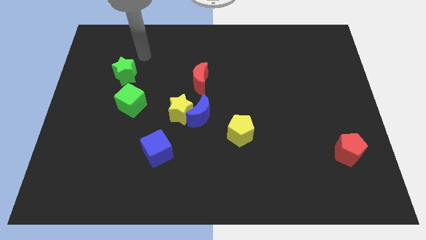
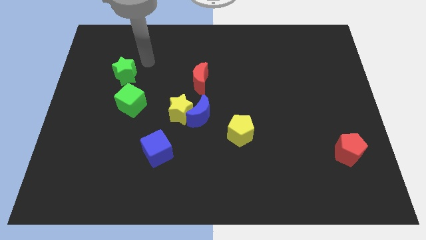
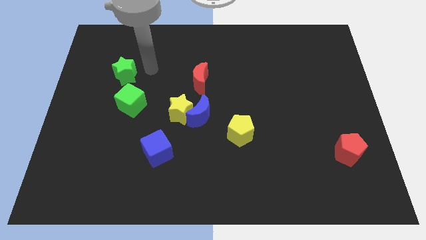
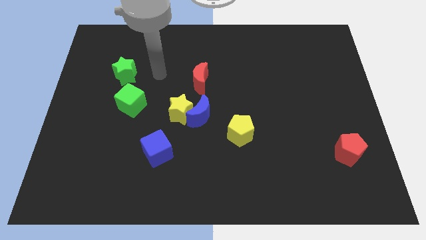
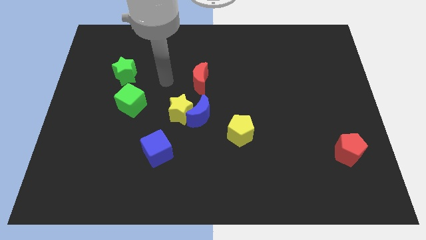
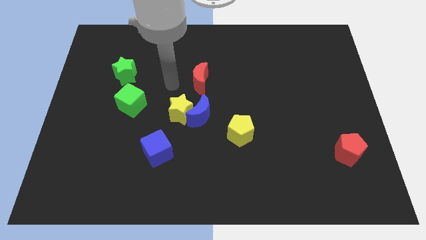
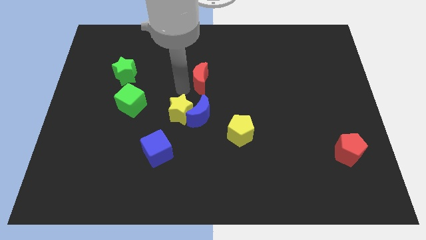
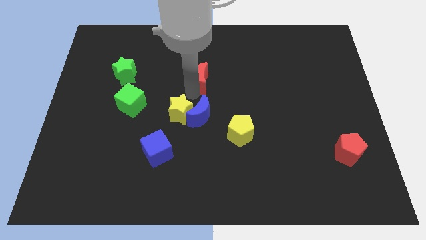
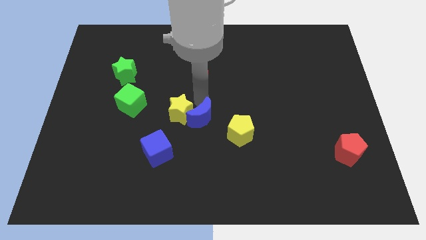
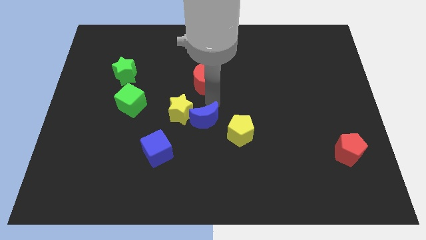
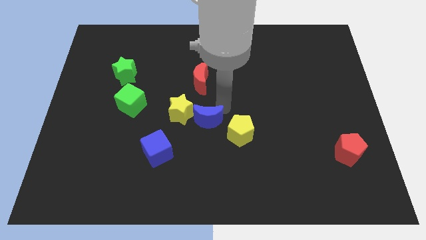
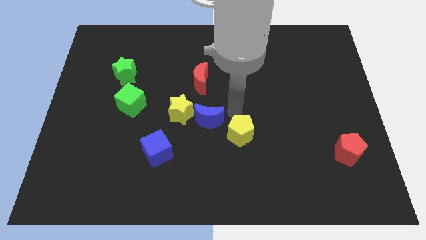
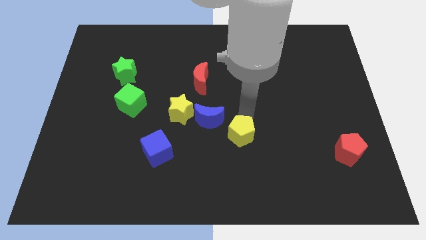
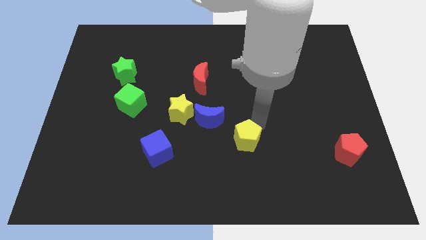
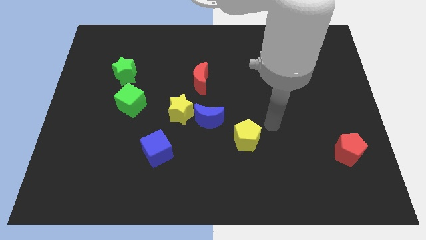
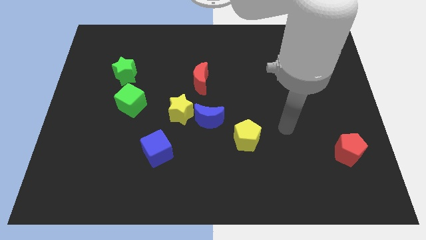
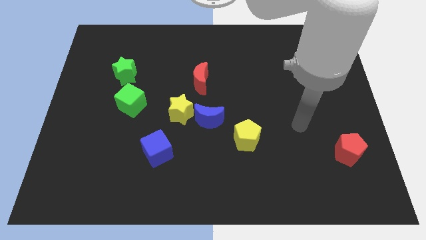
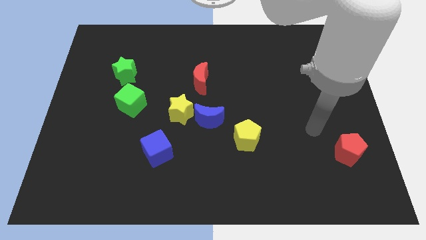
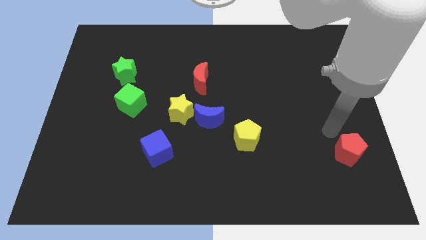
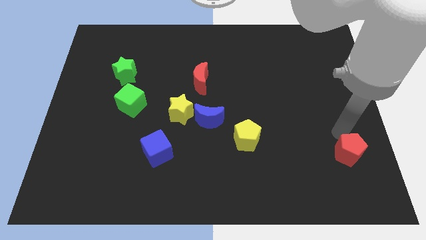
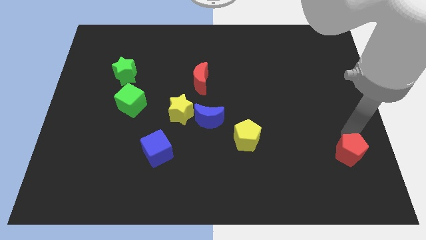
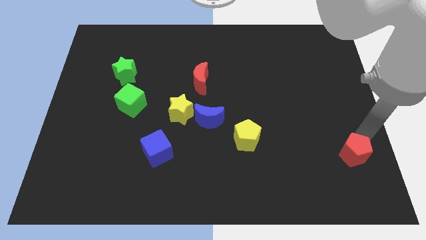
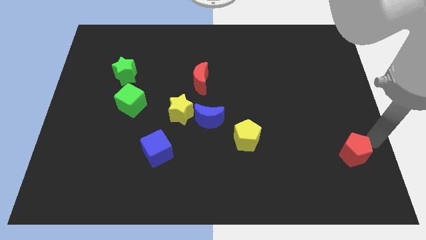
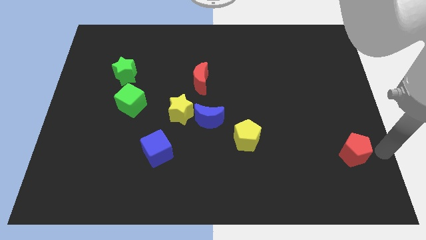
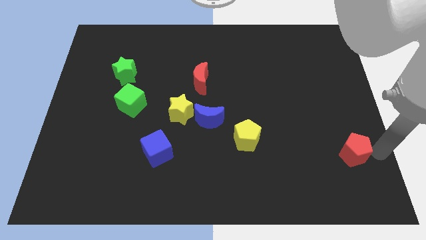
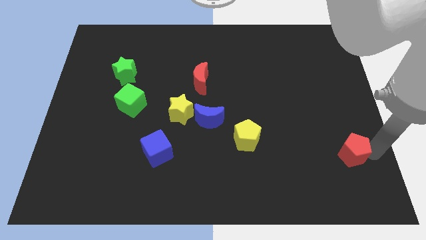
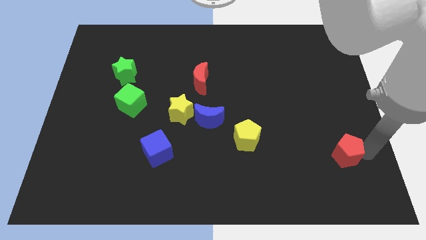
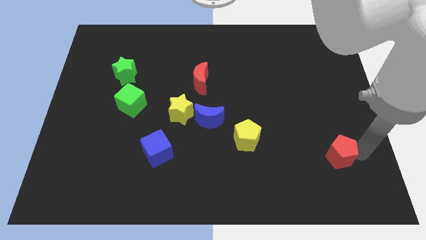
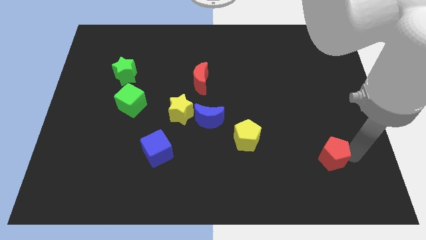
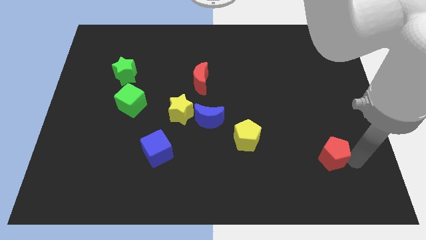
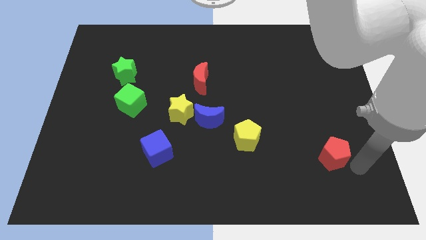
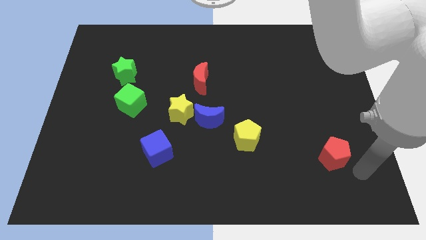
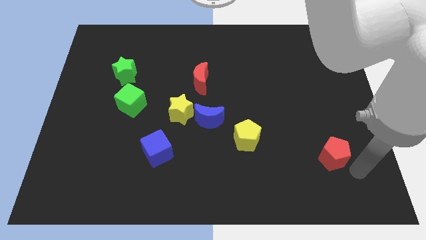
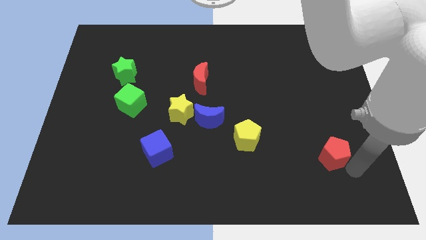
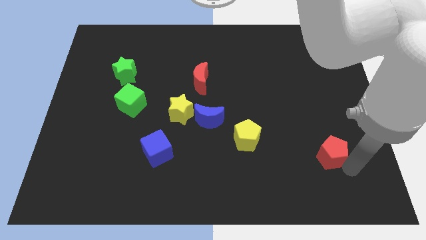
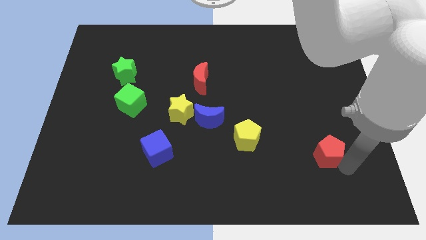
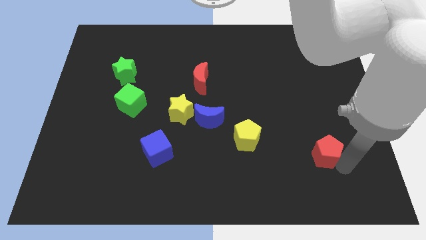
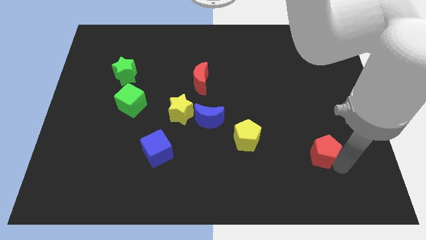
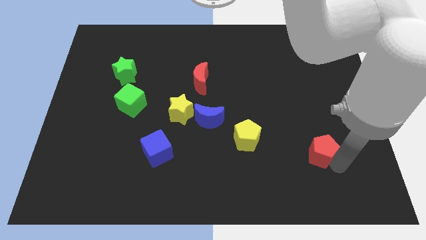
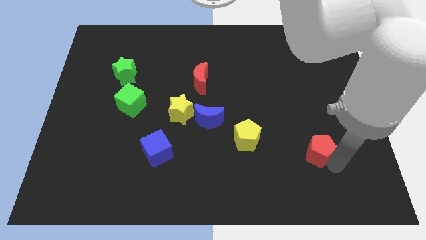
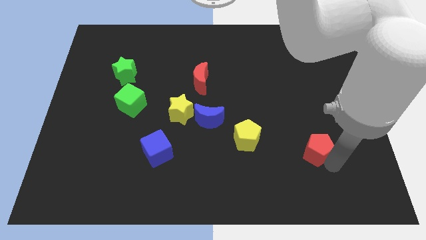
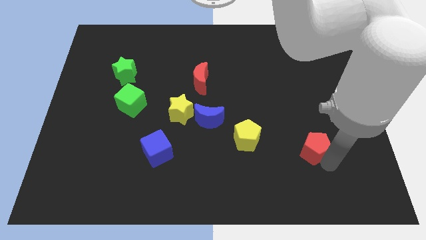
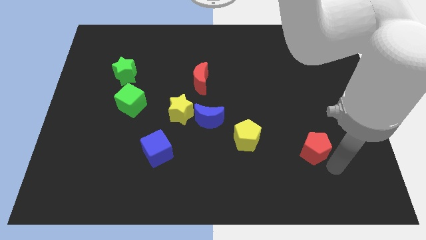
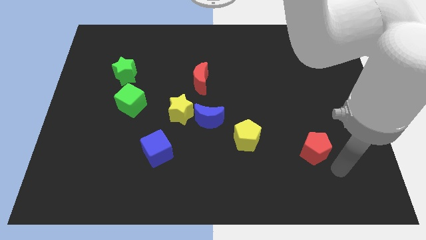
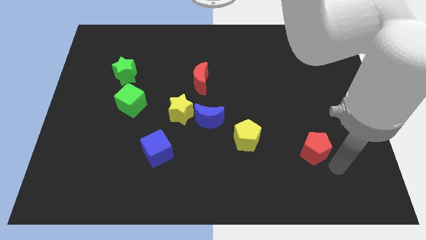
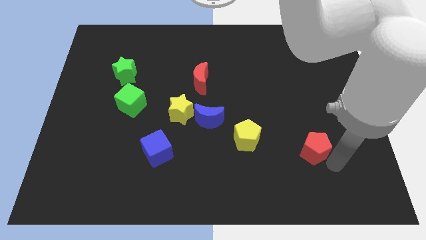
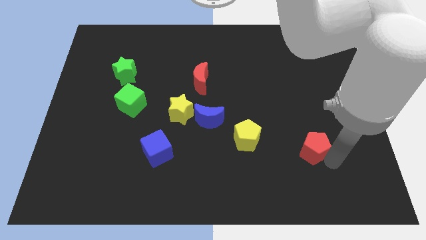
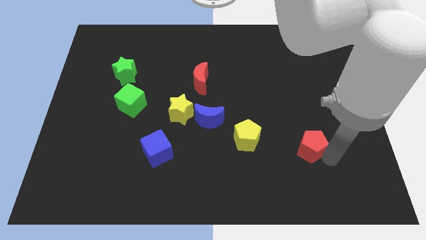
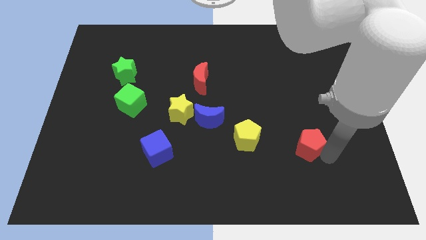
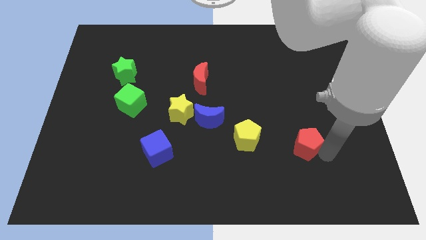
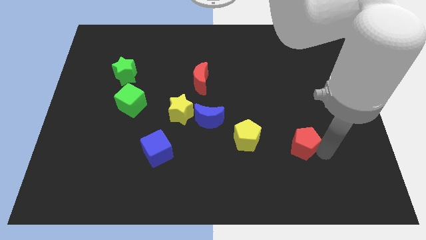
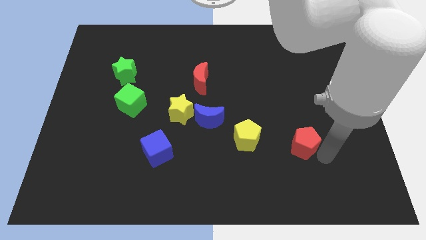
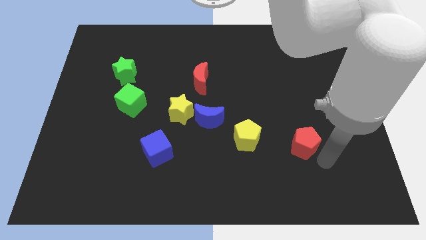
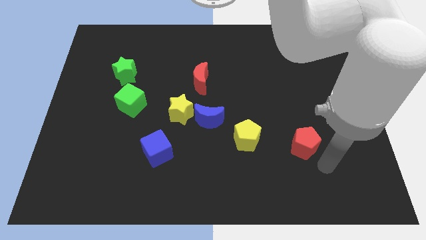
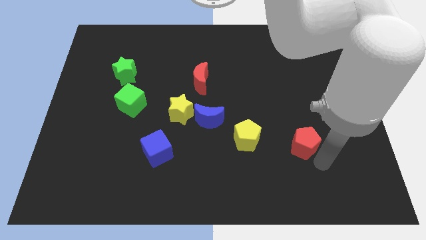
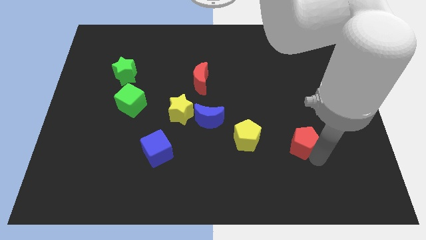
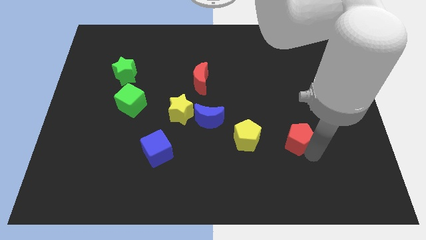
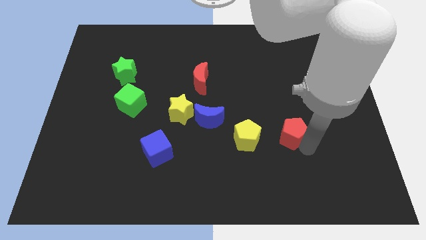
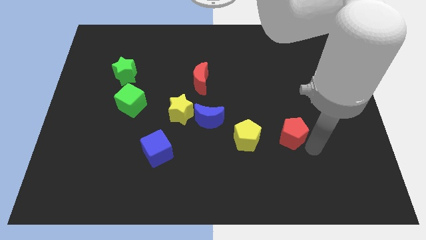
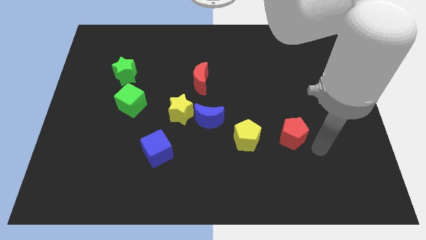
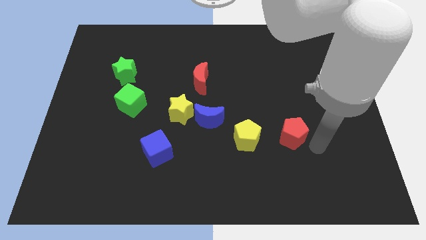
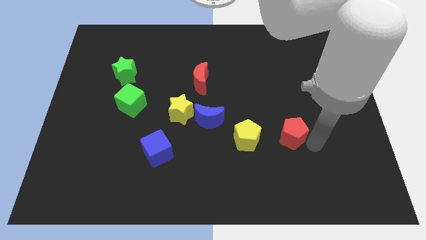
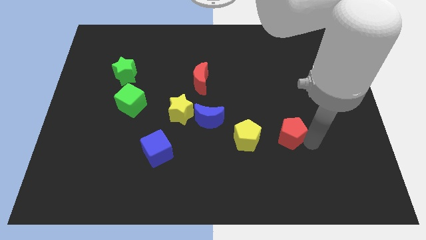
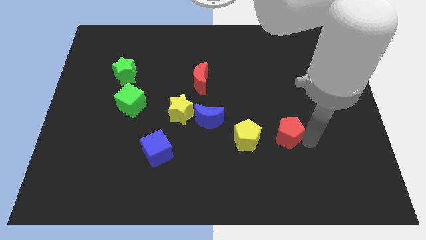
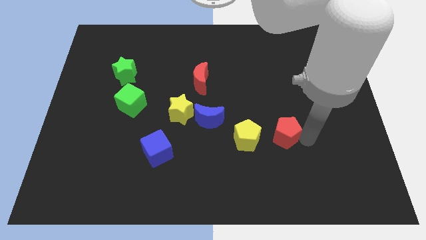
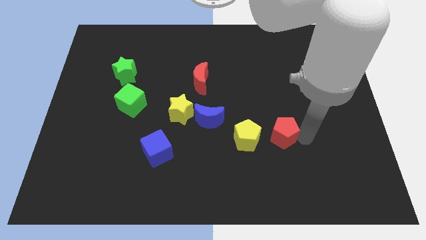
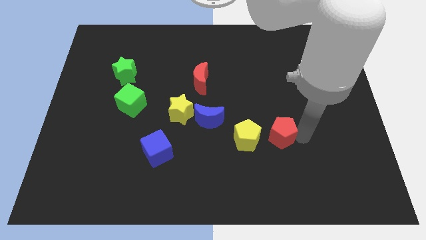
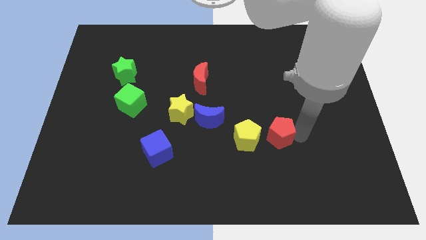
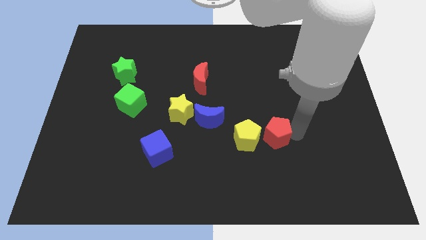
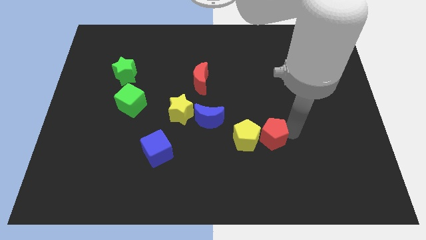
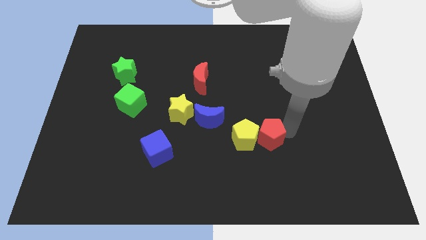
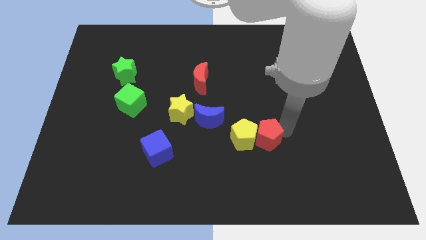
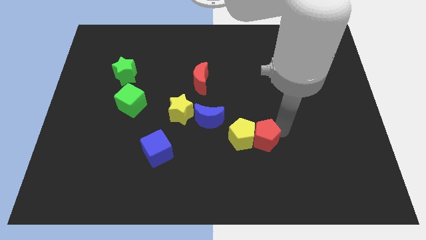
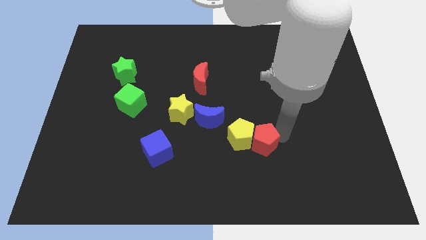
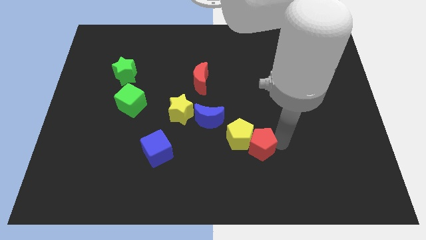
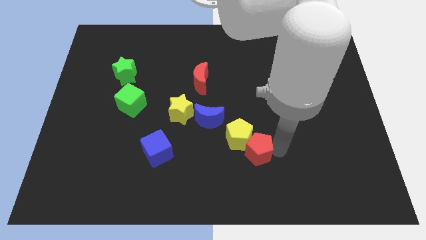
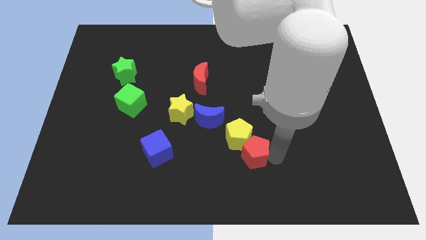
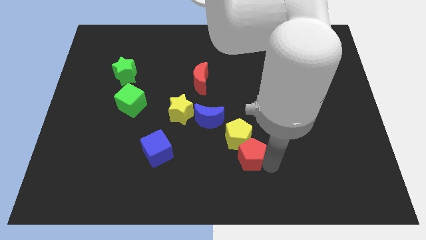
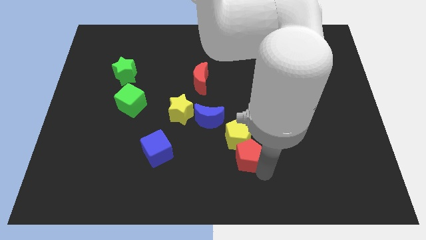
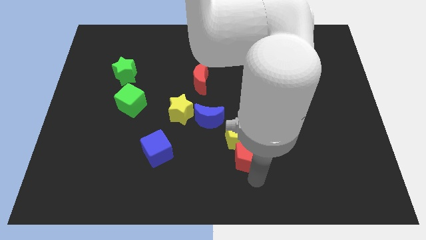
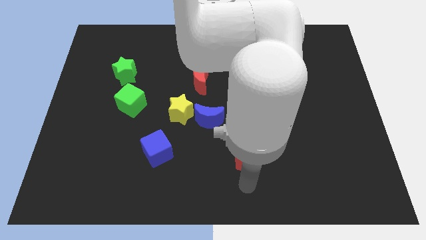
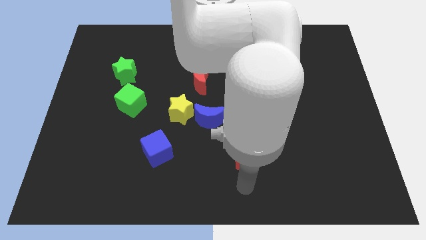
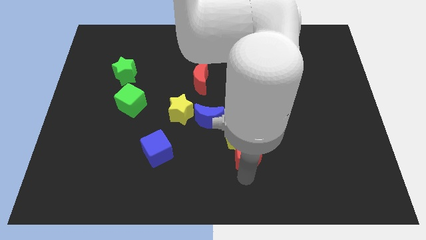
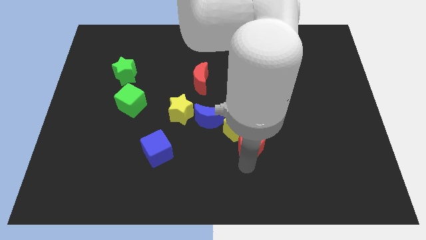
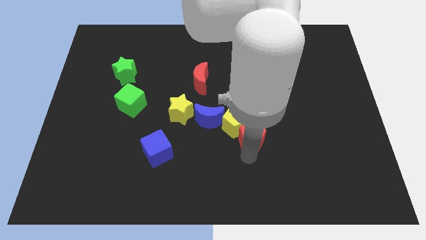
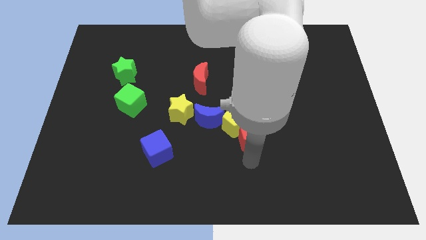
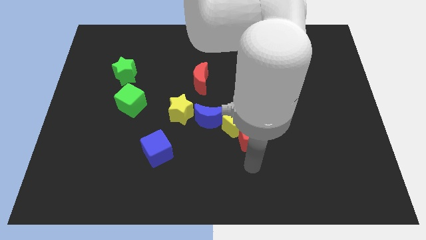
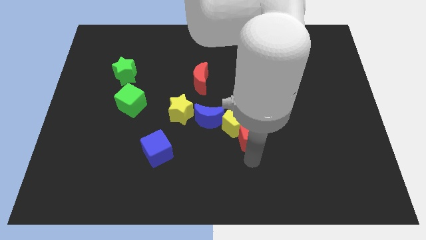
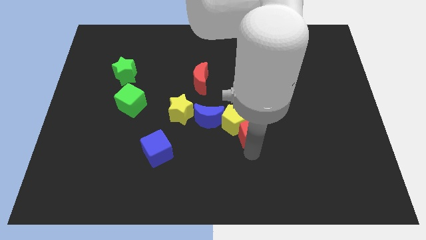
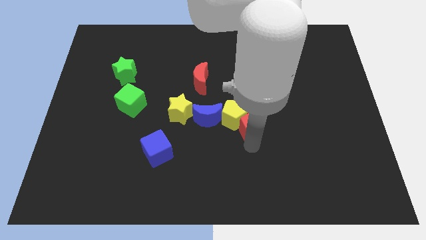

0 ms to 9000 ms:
put the red pentagon to the middle of the board
